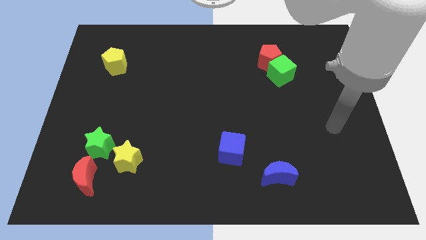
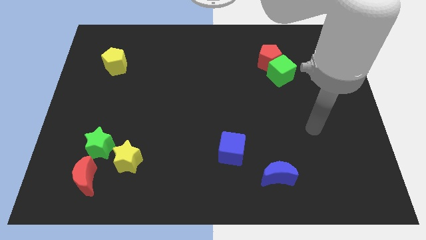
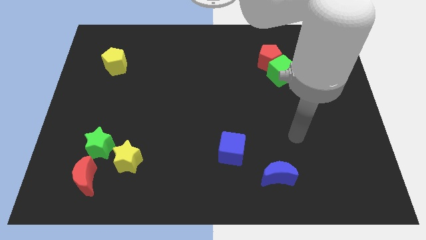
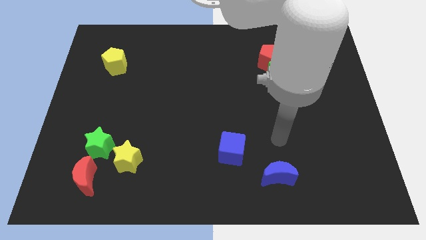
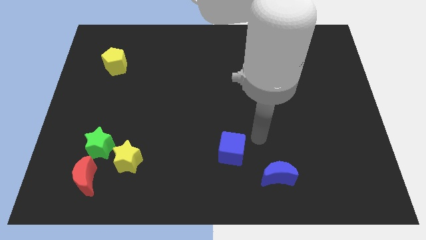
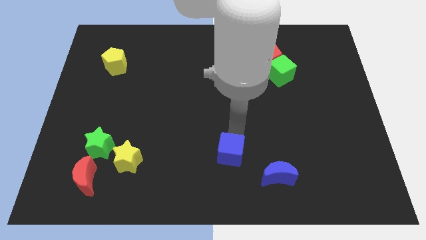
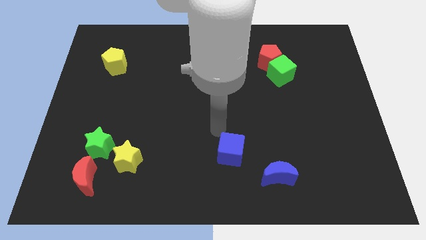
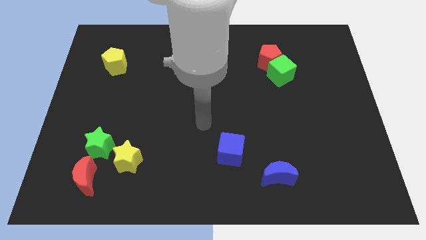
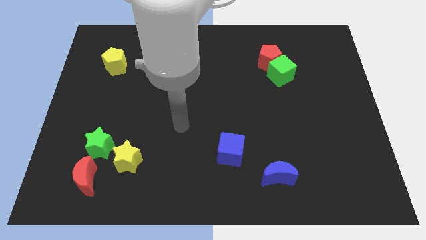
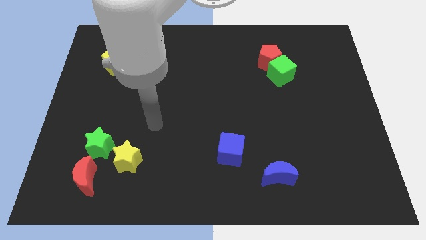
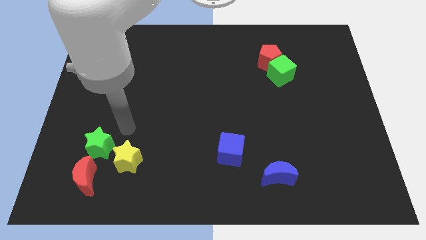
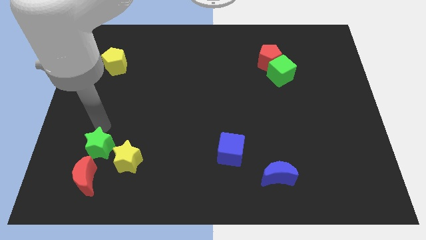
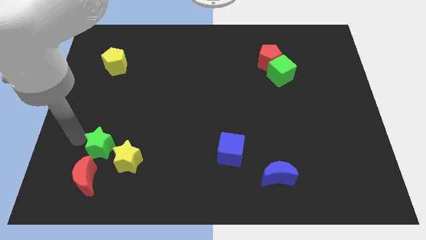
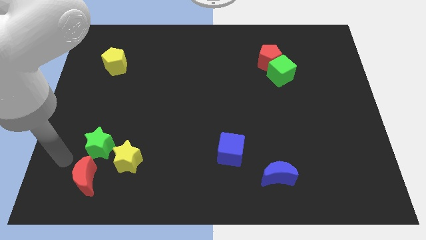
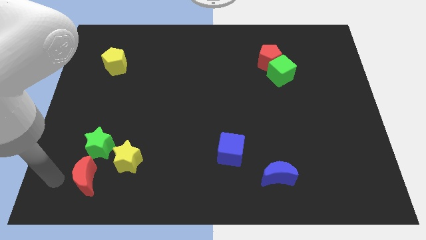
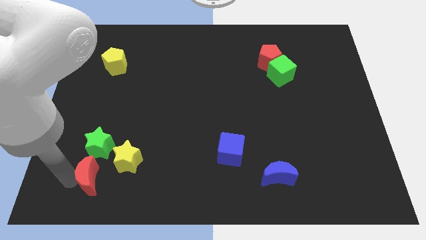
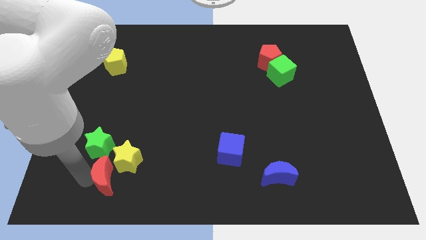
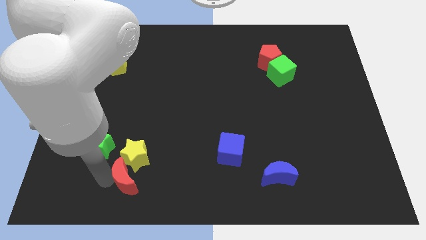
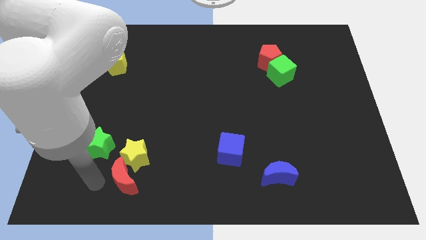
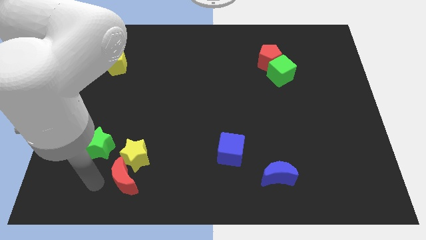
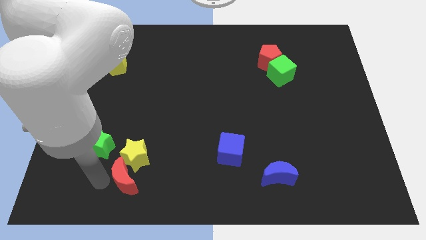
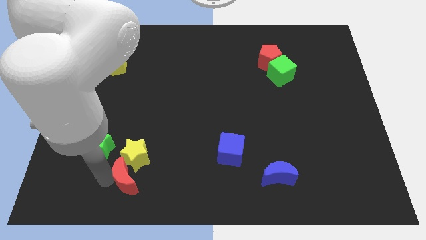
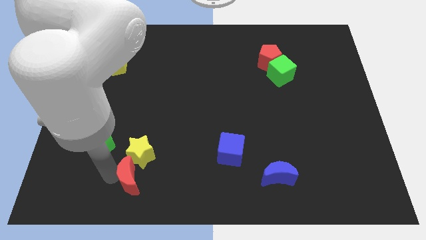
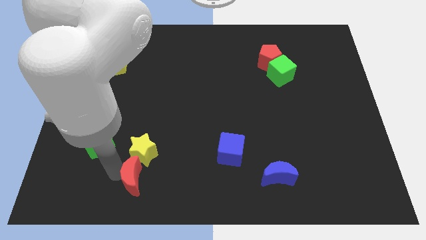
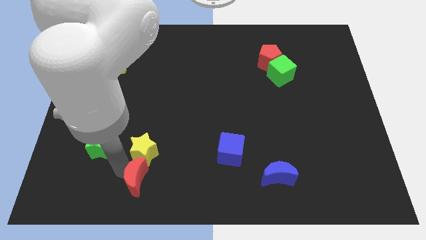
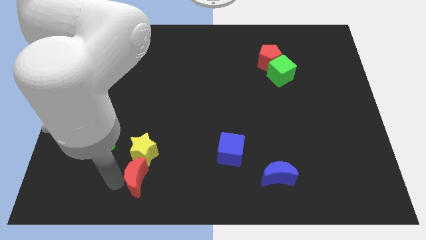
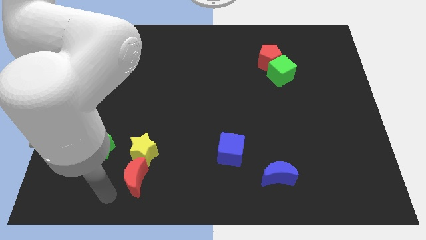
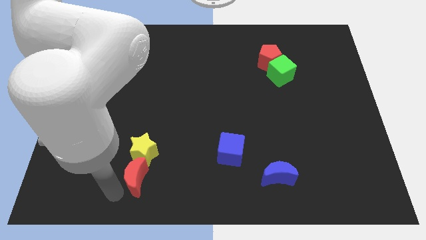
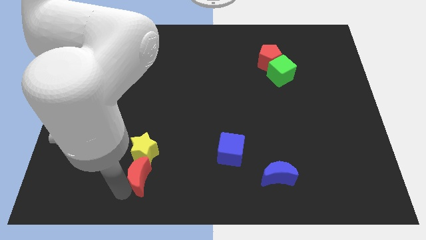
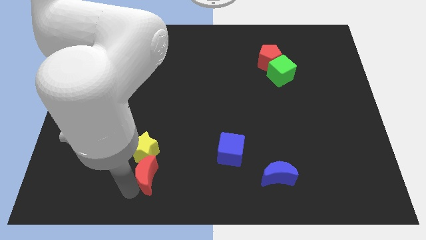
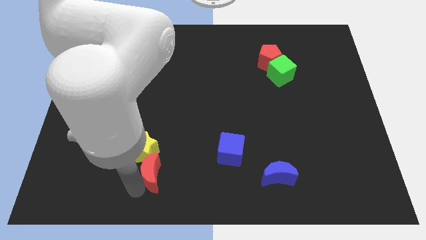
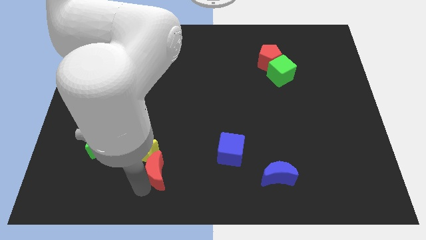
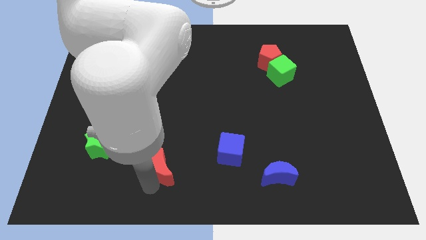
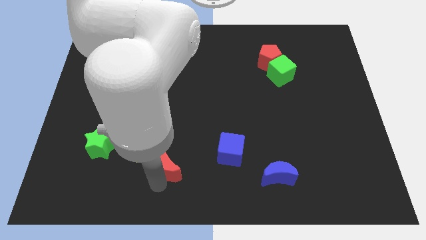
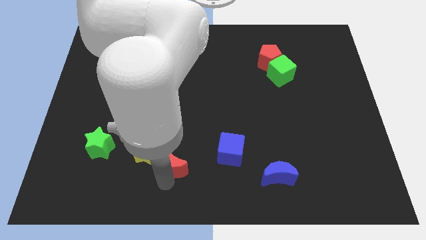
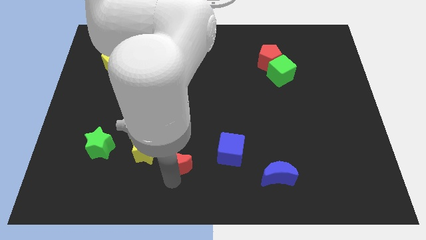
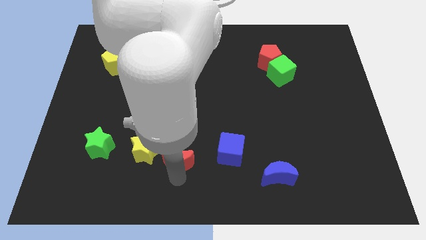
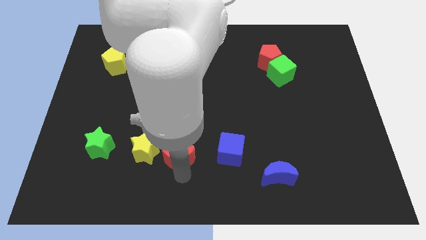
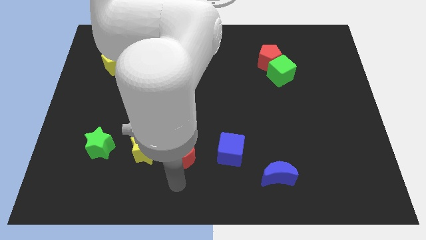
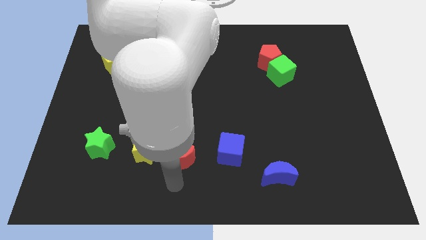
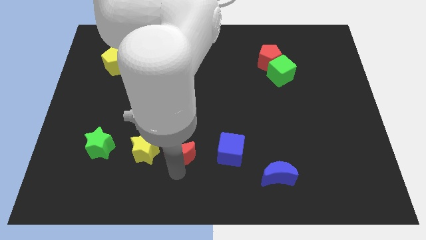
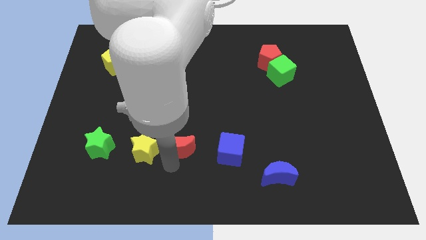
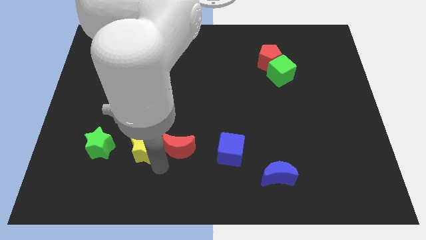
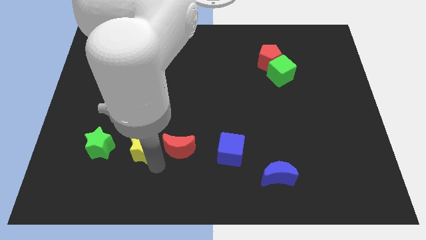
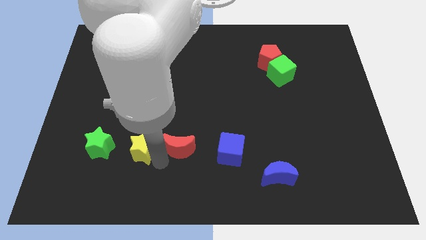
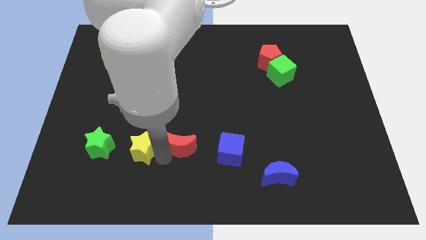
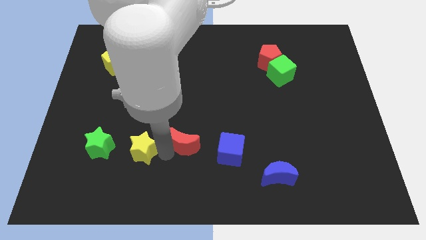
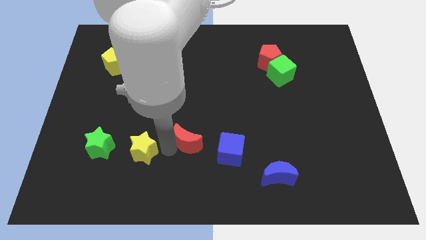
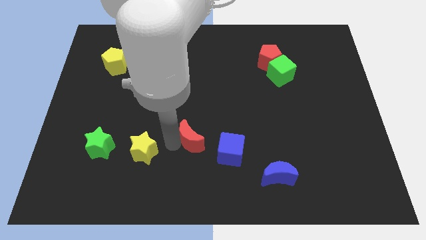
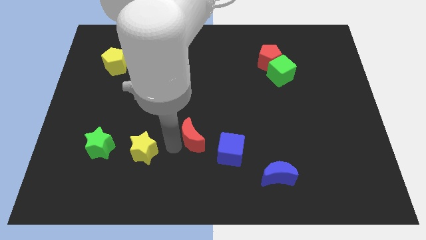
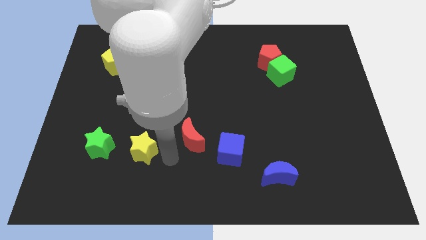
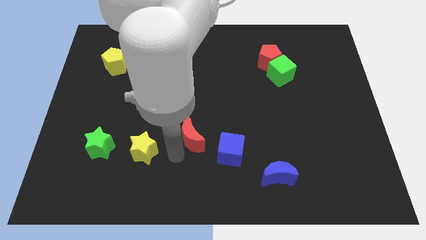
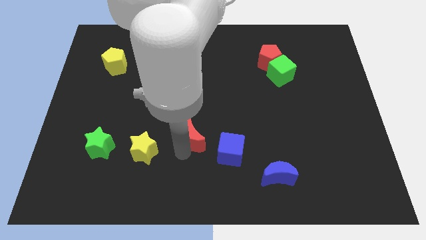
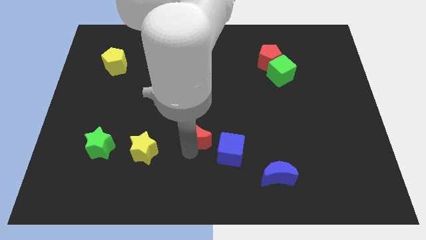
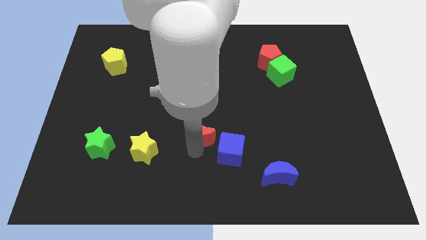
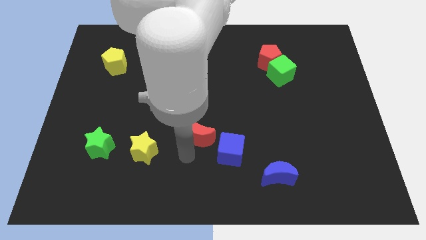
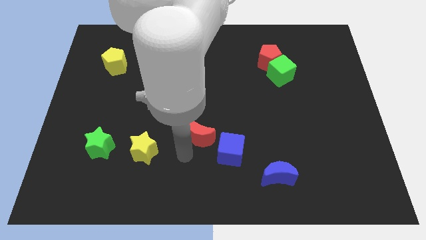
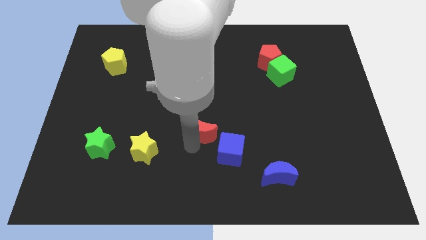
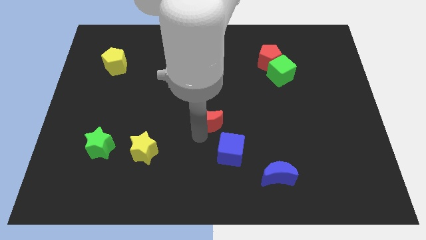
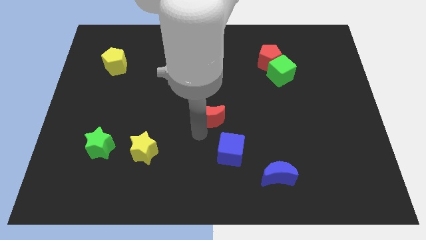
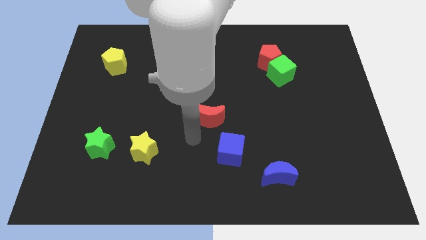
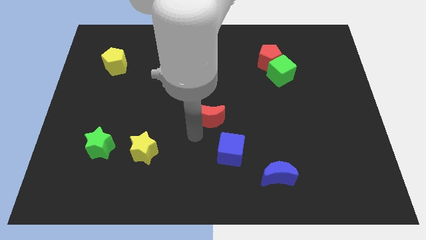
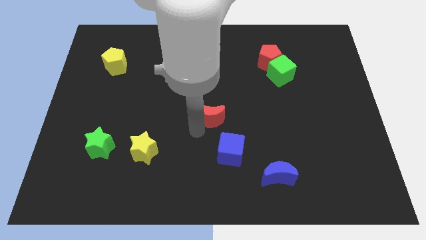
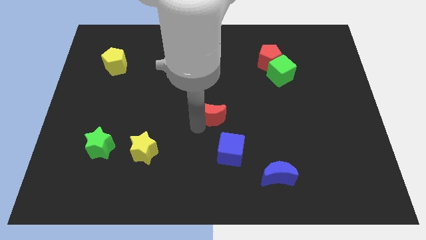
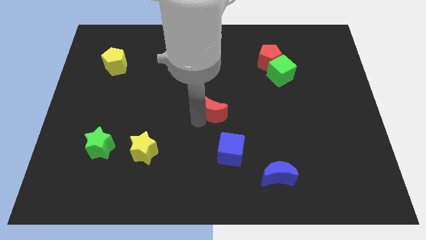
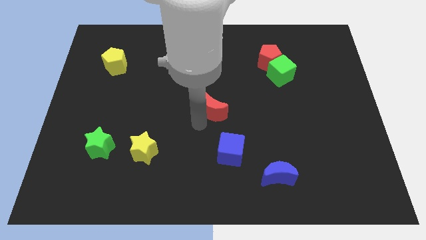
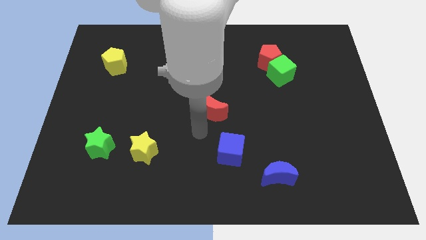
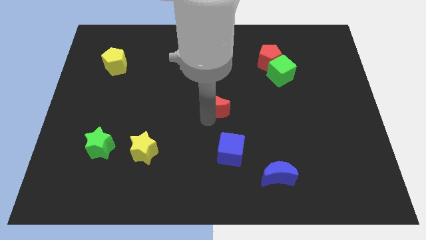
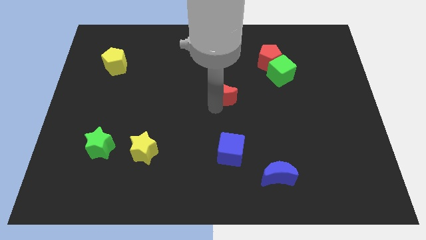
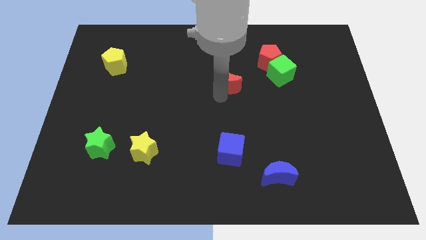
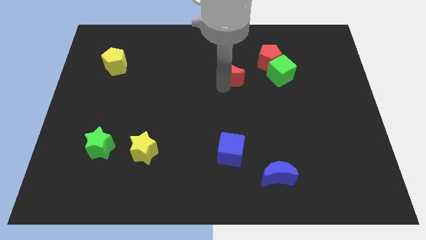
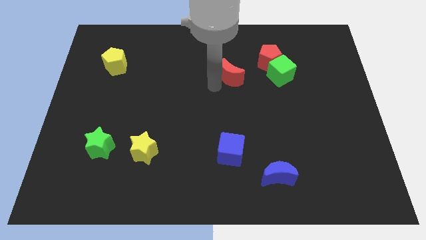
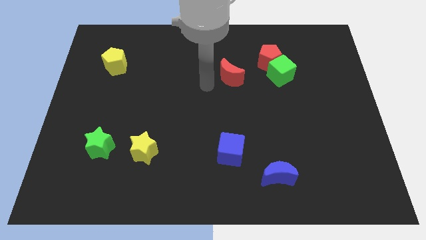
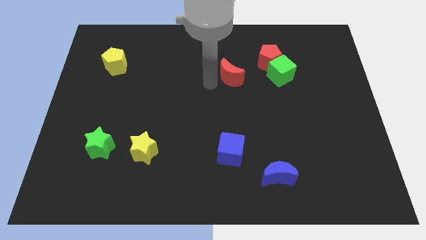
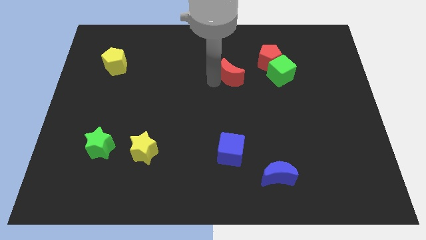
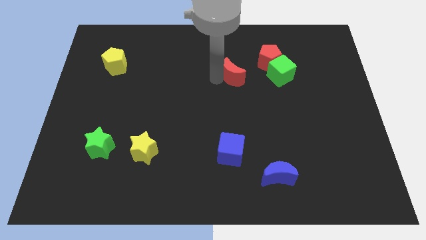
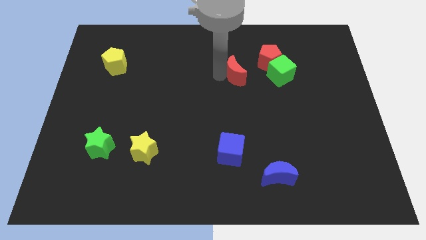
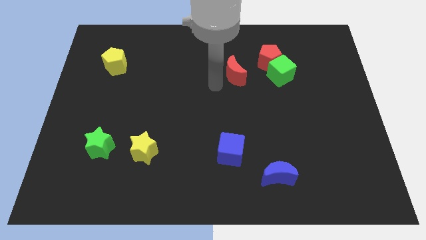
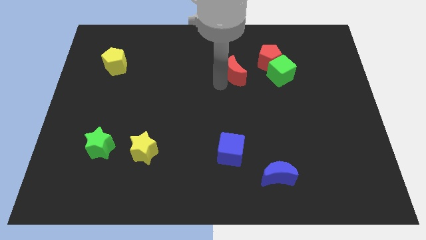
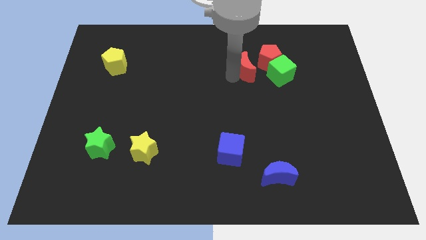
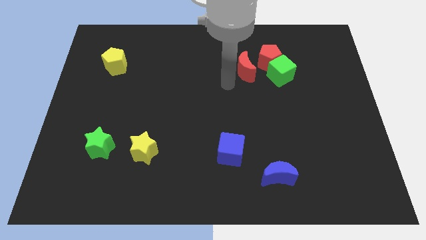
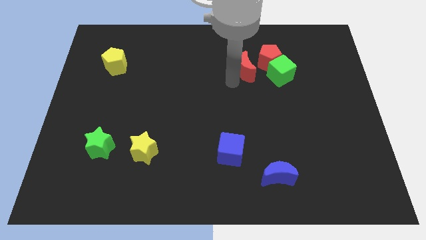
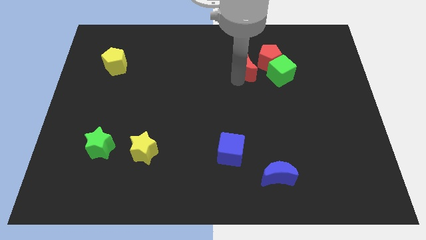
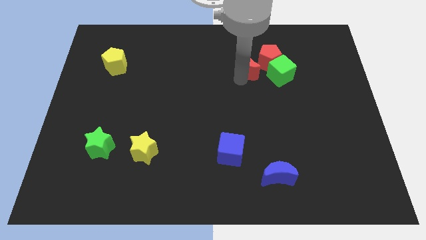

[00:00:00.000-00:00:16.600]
put the red moon diagonally up and to the left of the green cube
